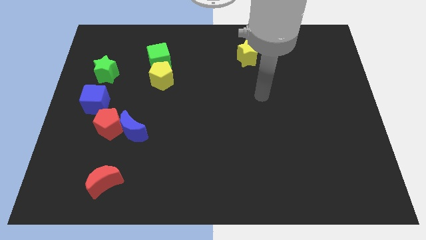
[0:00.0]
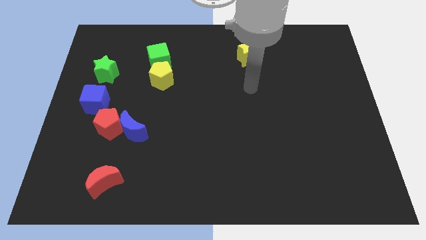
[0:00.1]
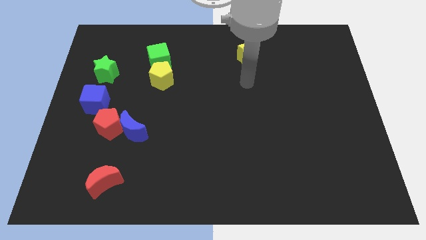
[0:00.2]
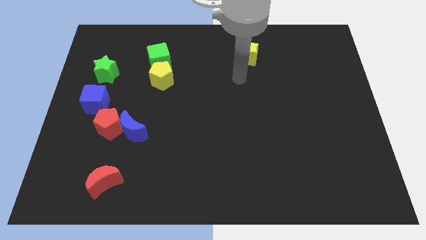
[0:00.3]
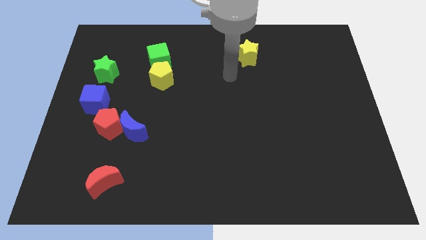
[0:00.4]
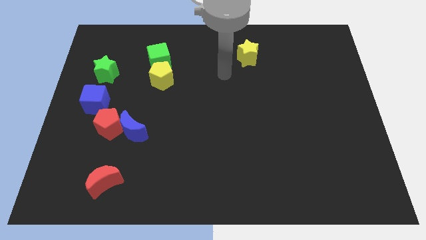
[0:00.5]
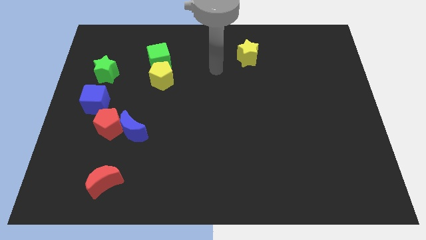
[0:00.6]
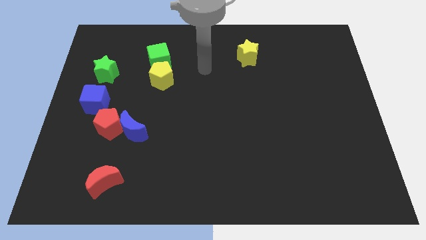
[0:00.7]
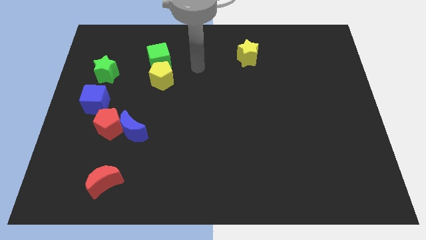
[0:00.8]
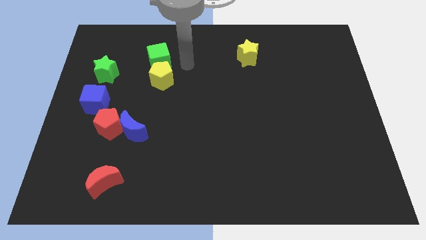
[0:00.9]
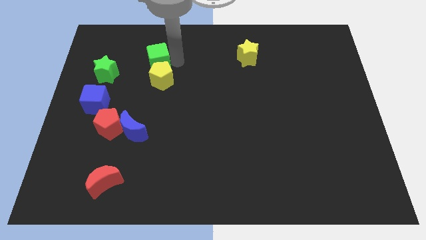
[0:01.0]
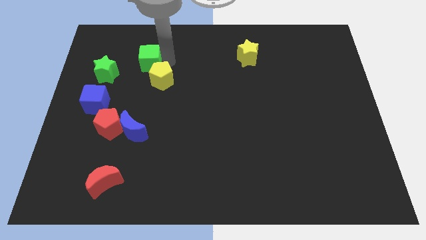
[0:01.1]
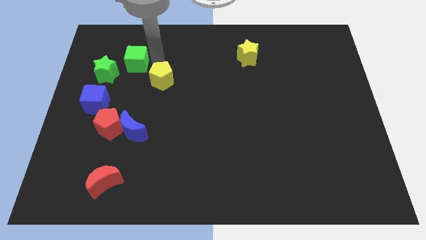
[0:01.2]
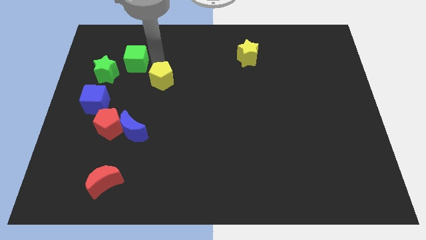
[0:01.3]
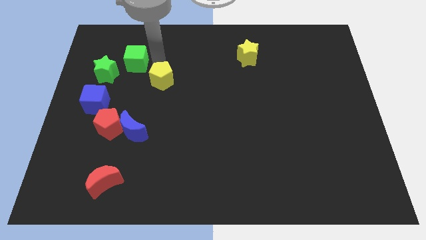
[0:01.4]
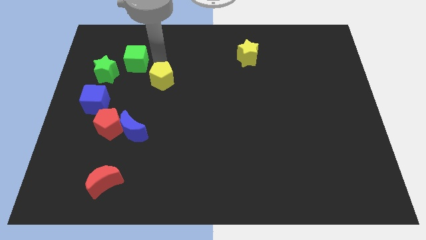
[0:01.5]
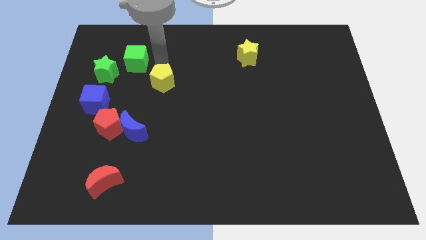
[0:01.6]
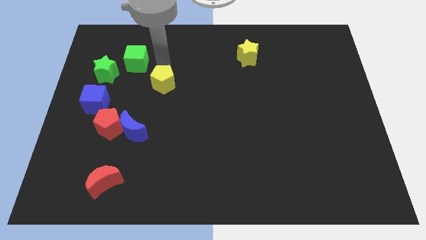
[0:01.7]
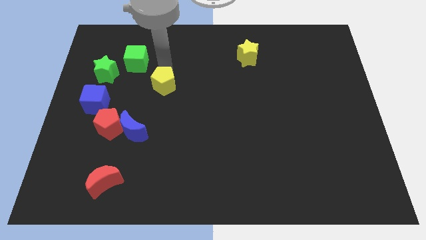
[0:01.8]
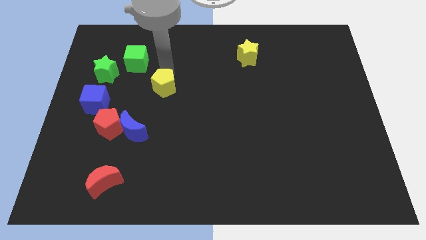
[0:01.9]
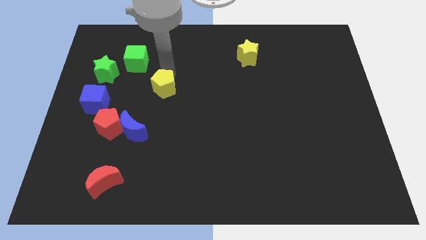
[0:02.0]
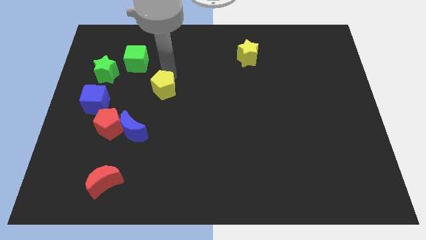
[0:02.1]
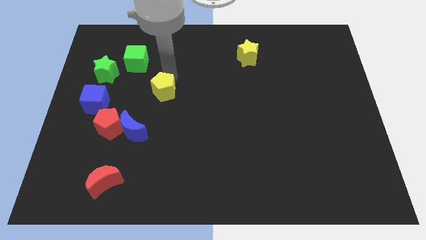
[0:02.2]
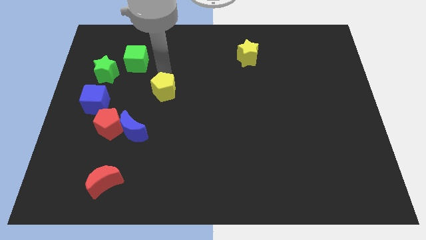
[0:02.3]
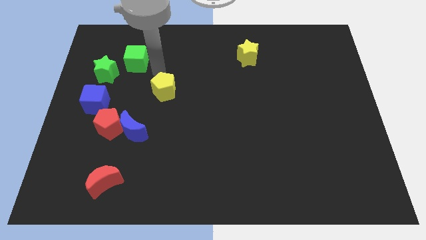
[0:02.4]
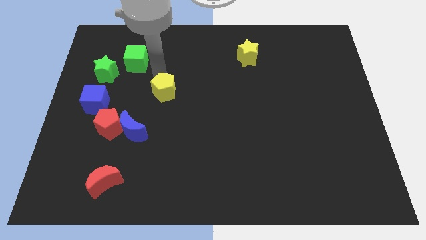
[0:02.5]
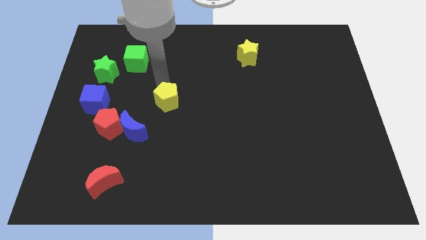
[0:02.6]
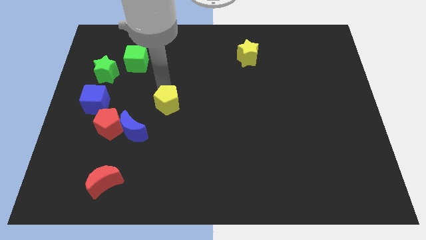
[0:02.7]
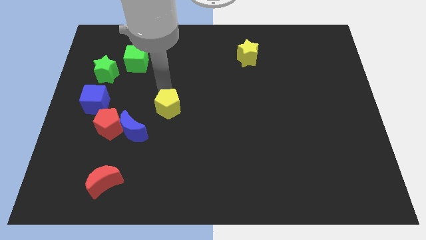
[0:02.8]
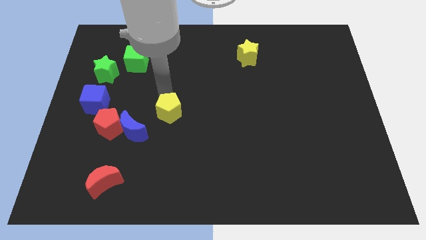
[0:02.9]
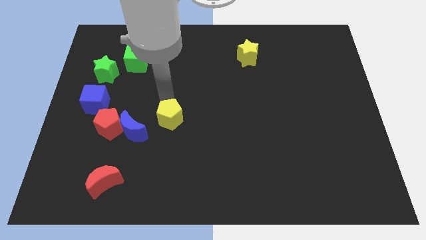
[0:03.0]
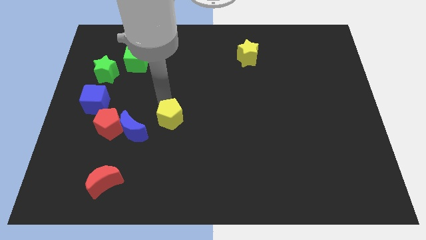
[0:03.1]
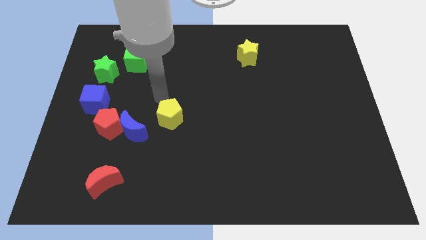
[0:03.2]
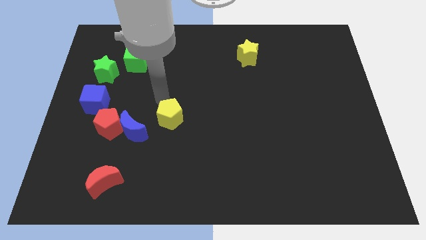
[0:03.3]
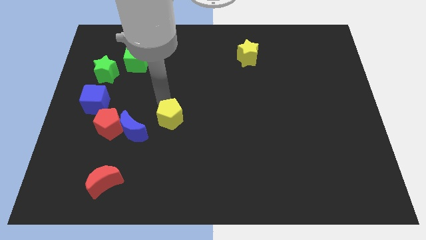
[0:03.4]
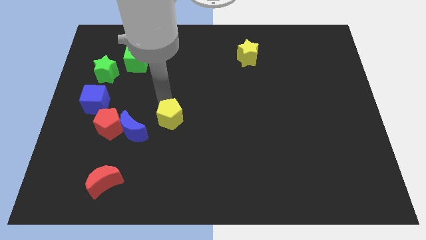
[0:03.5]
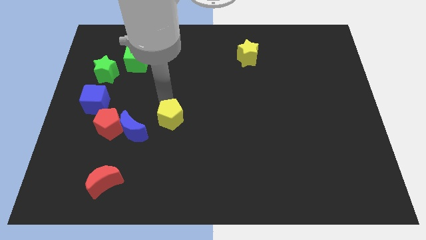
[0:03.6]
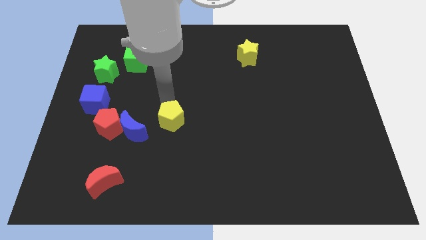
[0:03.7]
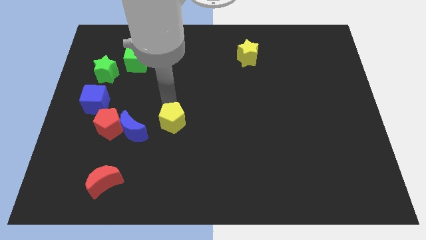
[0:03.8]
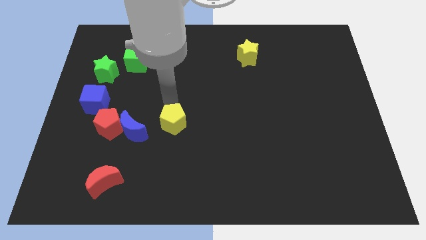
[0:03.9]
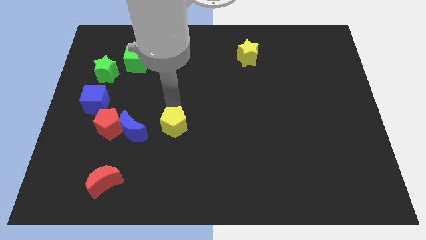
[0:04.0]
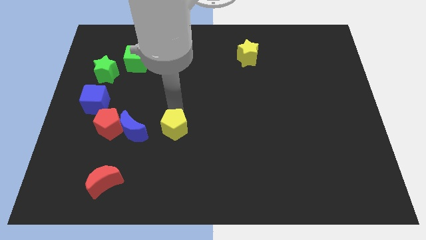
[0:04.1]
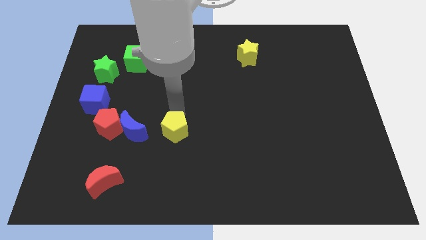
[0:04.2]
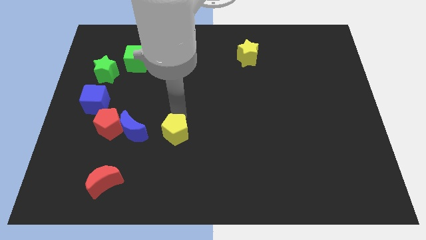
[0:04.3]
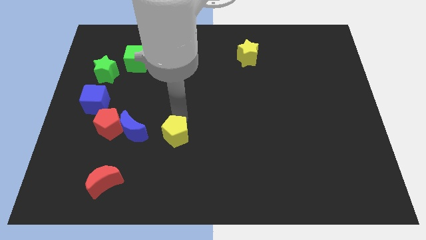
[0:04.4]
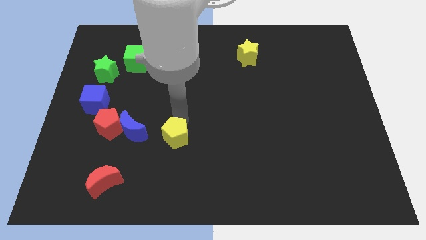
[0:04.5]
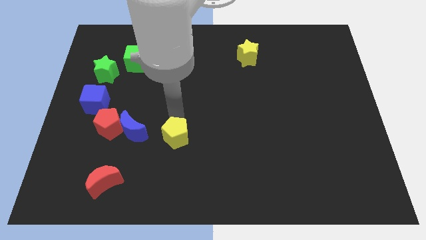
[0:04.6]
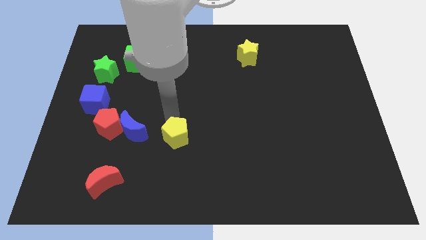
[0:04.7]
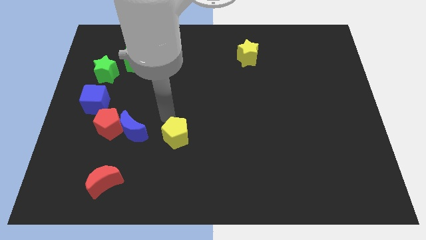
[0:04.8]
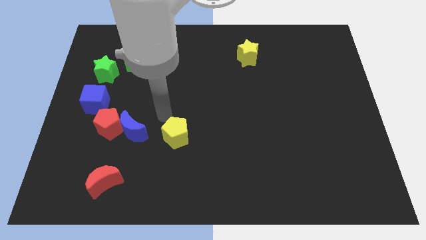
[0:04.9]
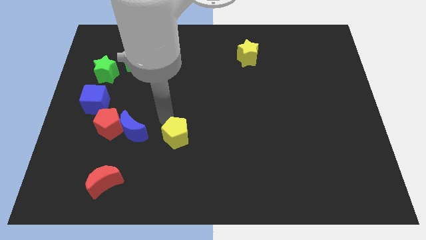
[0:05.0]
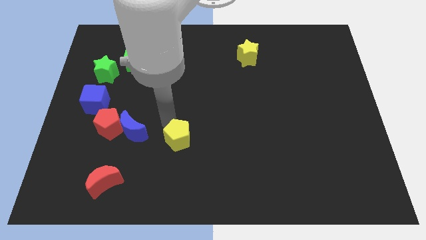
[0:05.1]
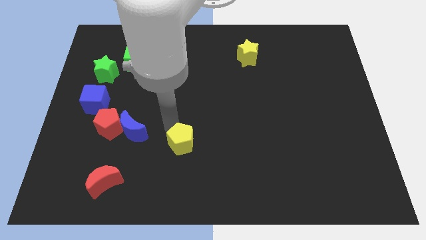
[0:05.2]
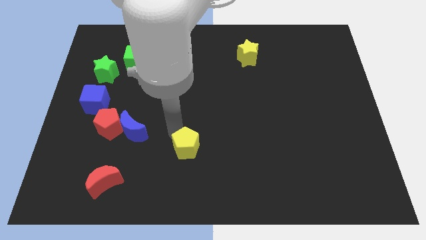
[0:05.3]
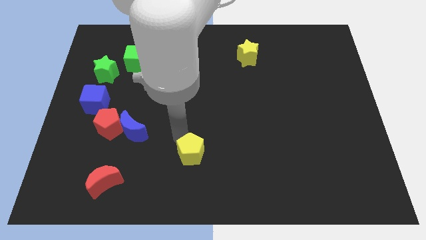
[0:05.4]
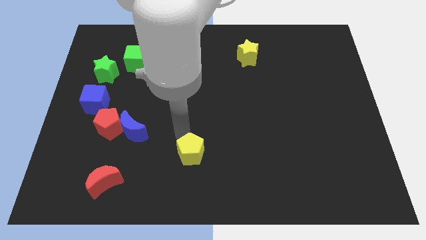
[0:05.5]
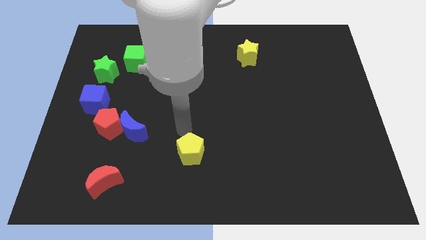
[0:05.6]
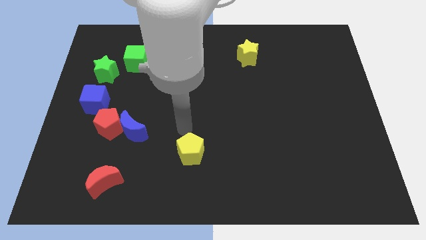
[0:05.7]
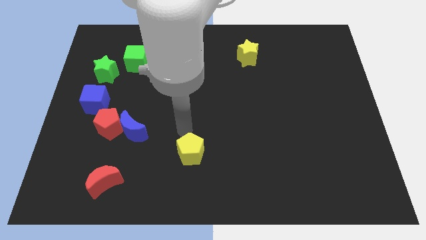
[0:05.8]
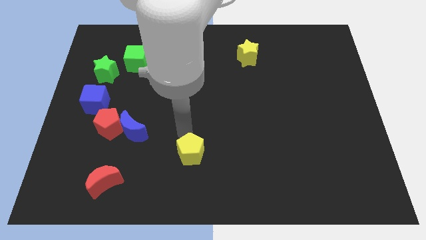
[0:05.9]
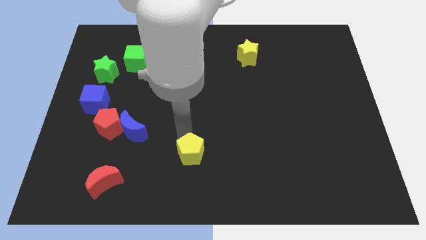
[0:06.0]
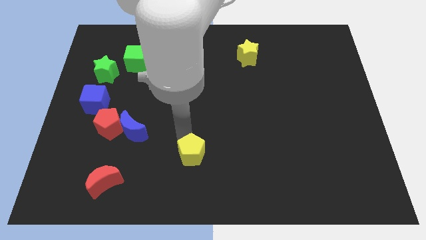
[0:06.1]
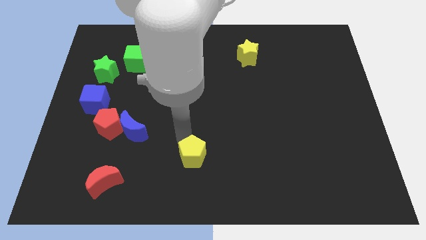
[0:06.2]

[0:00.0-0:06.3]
push the yellow pentagon to the bottom

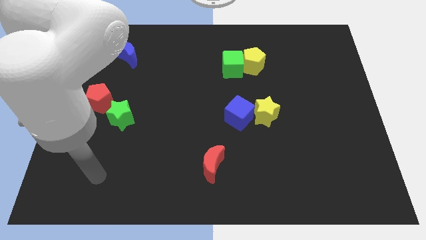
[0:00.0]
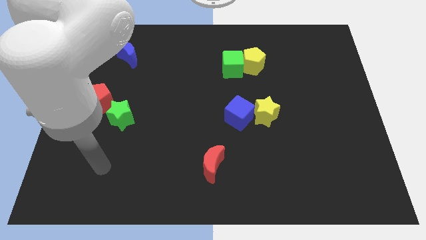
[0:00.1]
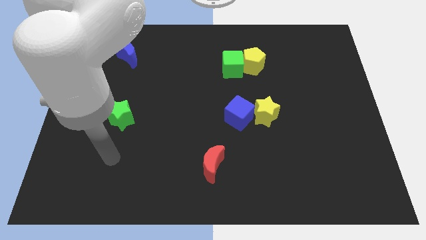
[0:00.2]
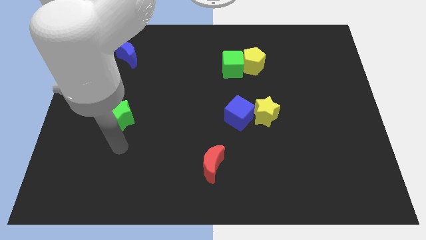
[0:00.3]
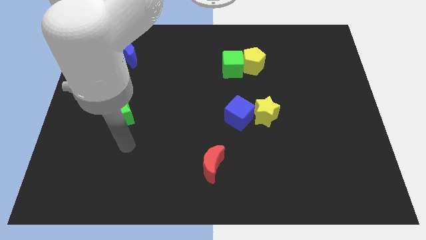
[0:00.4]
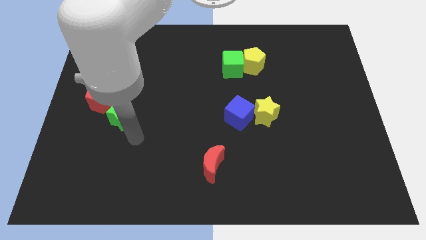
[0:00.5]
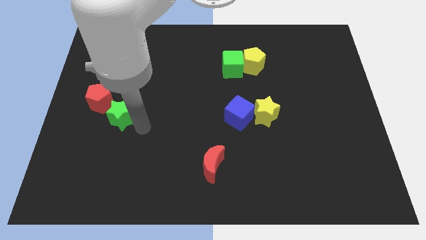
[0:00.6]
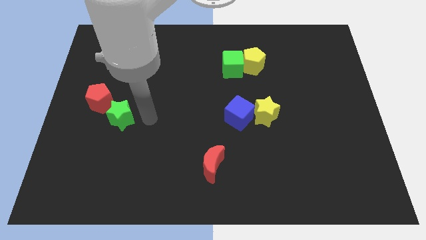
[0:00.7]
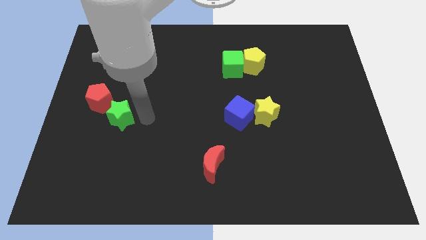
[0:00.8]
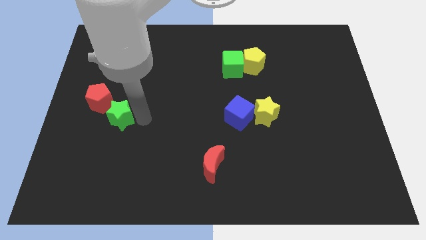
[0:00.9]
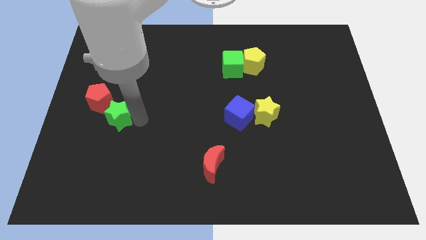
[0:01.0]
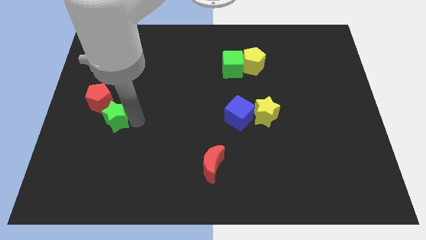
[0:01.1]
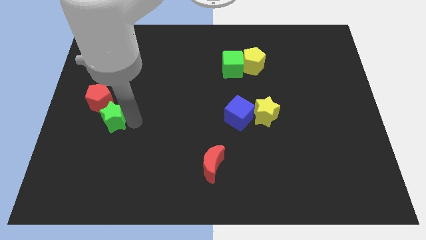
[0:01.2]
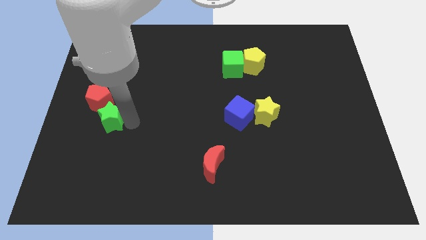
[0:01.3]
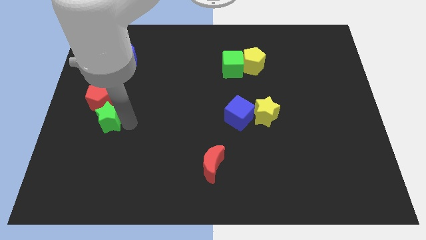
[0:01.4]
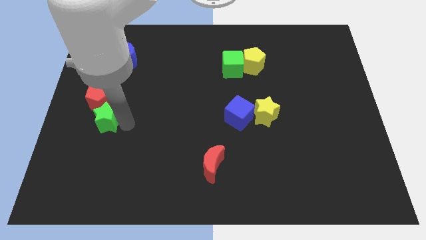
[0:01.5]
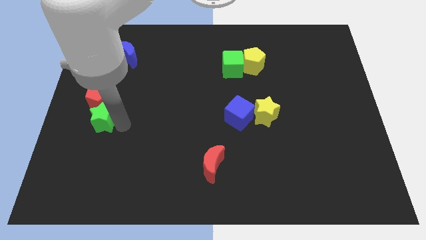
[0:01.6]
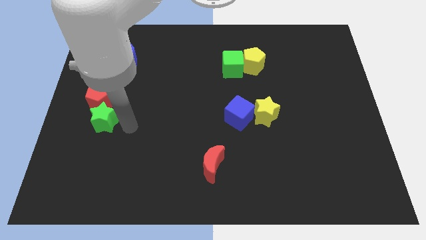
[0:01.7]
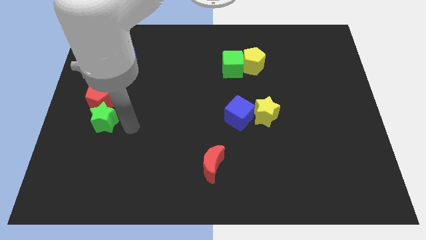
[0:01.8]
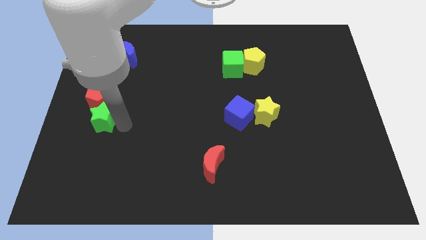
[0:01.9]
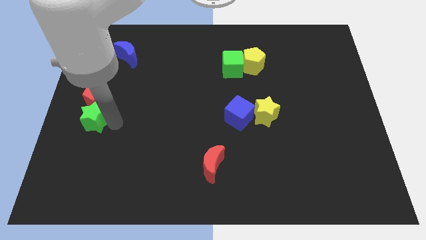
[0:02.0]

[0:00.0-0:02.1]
put the green star to the left side of the board
